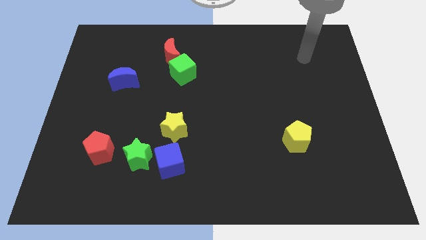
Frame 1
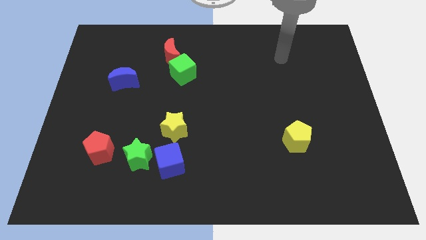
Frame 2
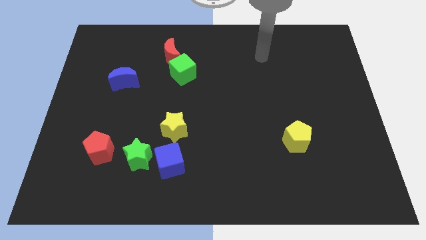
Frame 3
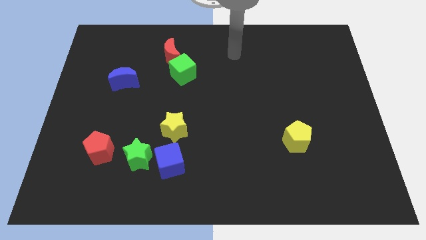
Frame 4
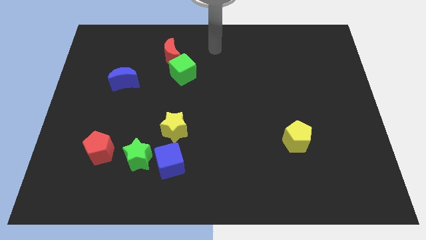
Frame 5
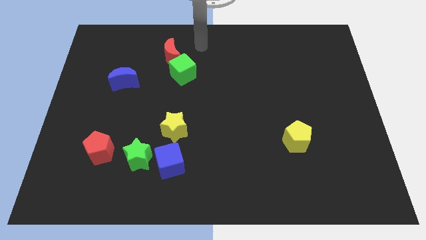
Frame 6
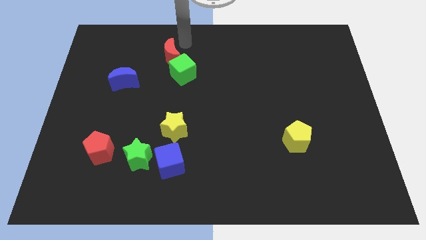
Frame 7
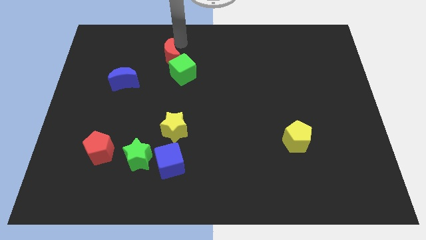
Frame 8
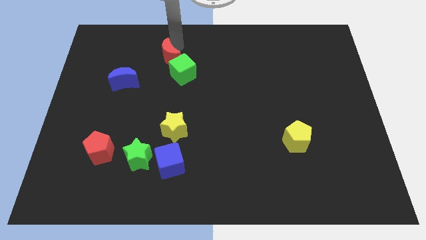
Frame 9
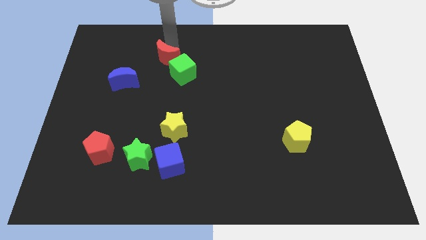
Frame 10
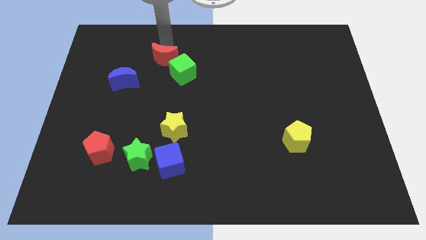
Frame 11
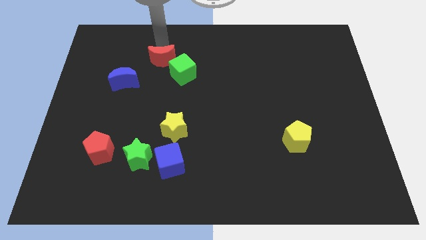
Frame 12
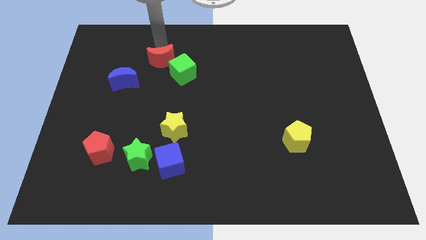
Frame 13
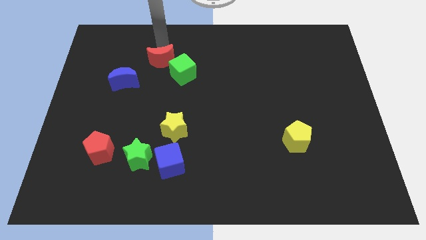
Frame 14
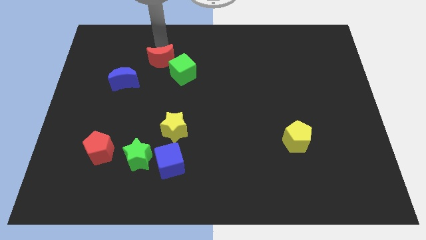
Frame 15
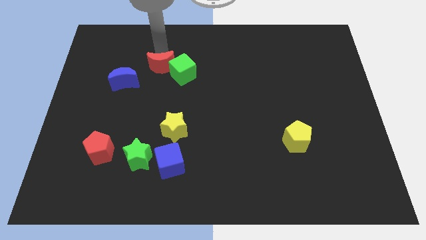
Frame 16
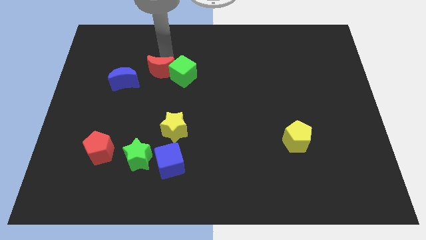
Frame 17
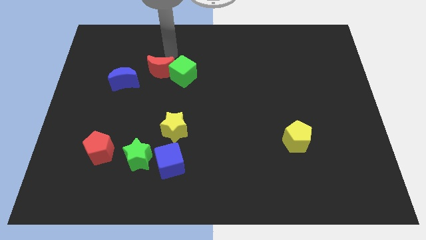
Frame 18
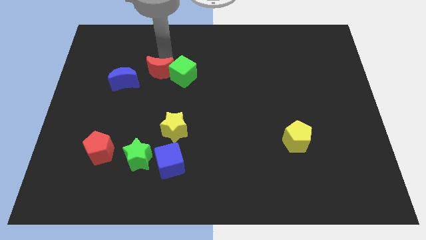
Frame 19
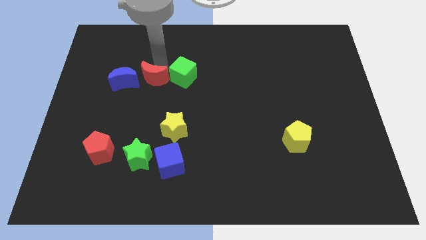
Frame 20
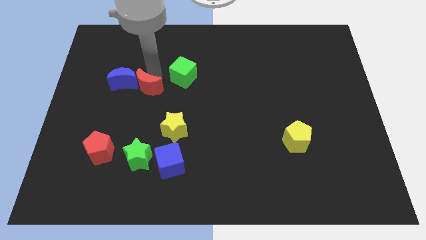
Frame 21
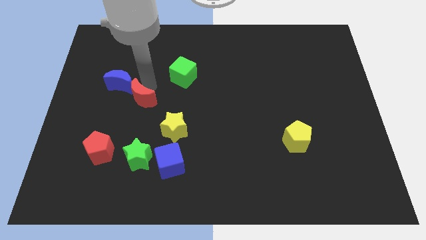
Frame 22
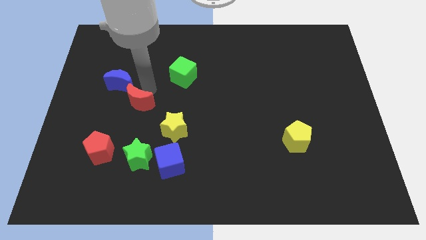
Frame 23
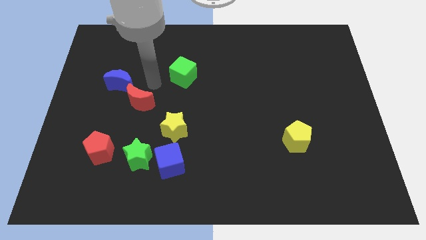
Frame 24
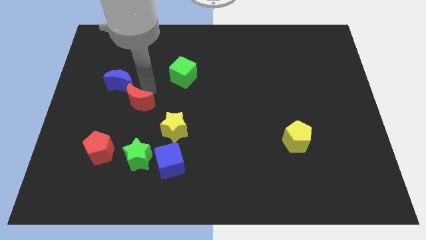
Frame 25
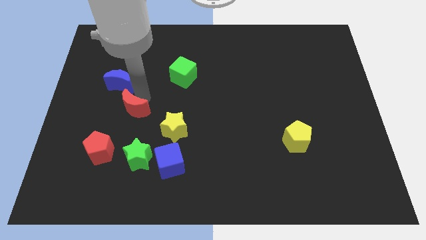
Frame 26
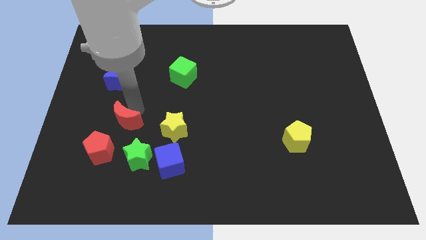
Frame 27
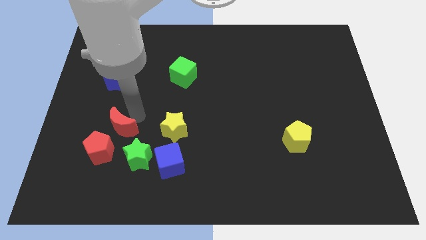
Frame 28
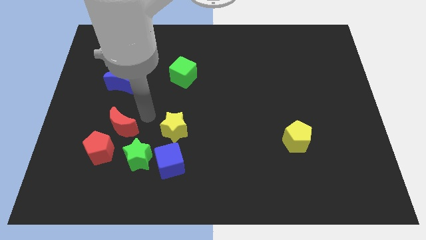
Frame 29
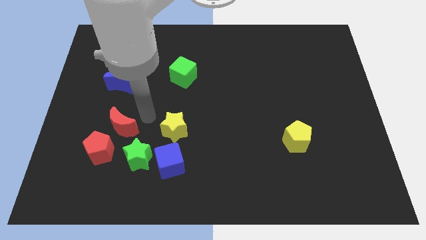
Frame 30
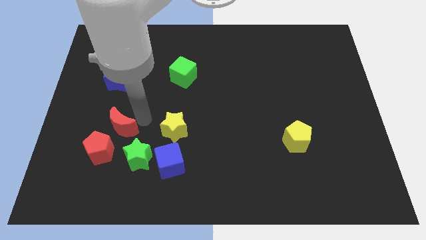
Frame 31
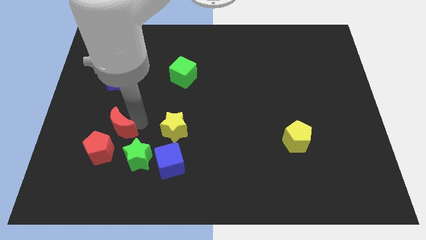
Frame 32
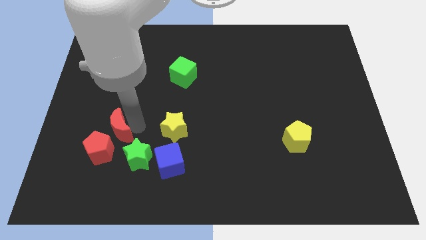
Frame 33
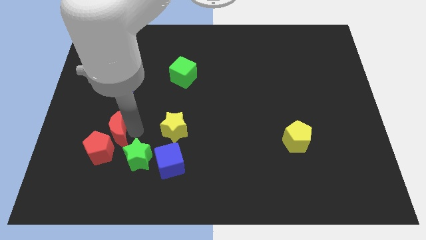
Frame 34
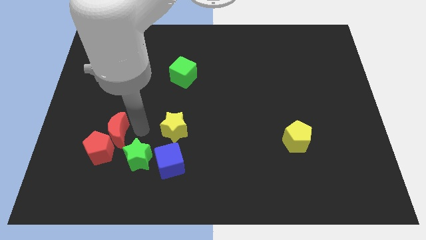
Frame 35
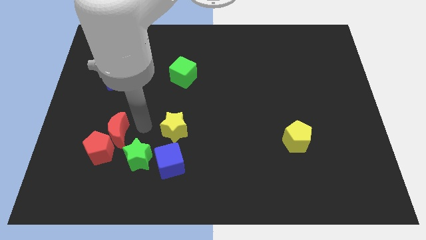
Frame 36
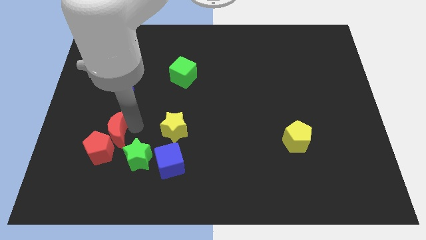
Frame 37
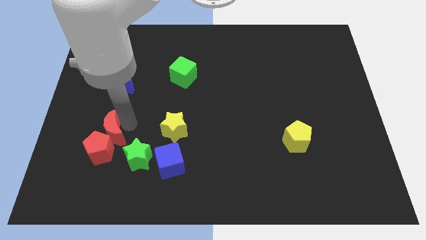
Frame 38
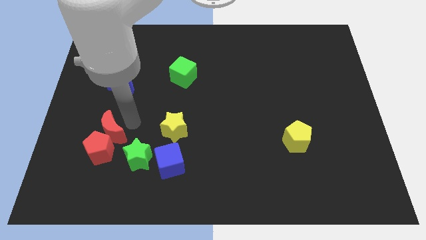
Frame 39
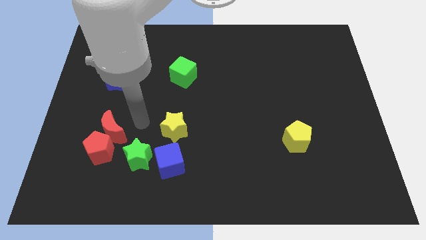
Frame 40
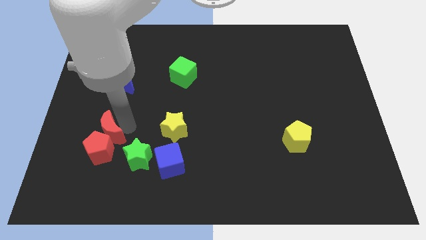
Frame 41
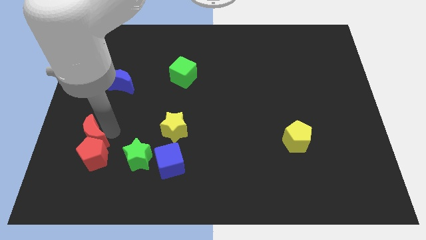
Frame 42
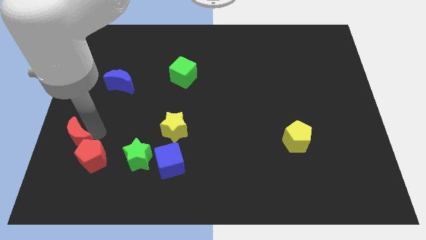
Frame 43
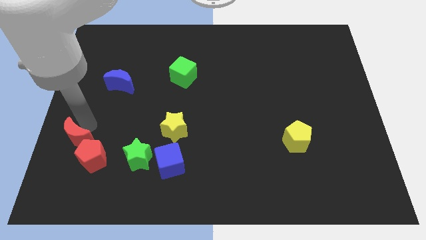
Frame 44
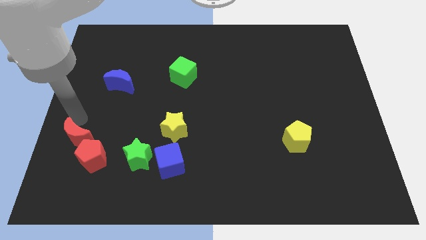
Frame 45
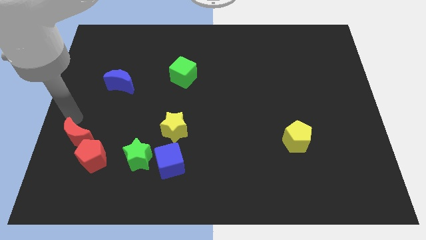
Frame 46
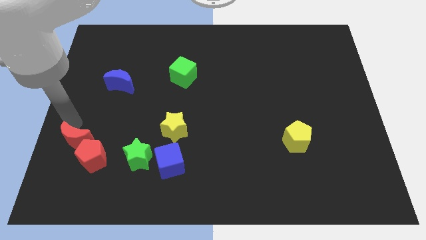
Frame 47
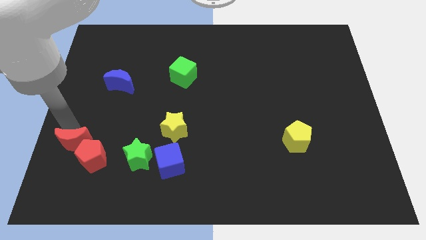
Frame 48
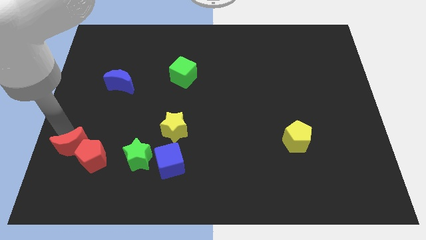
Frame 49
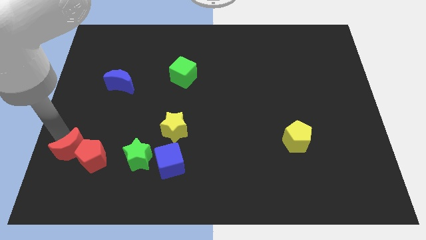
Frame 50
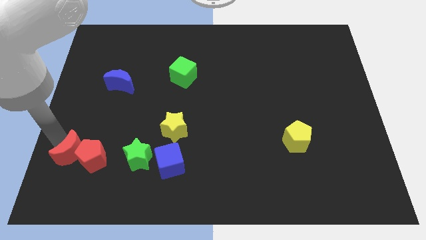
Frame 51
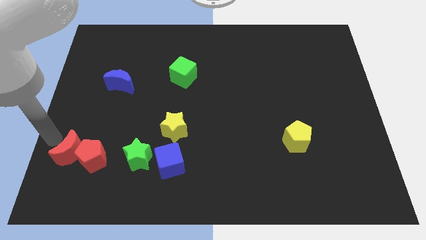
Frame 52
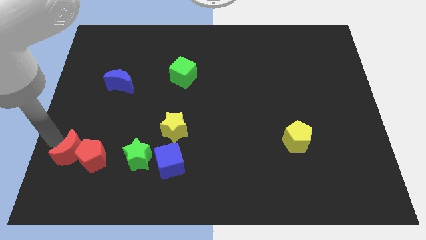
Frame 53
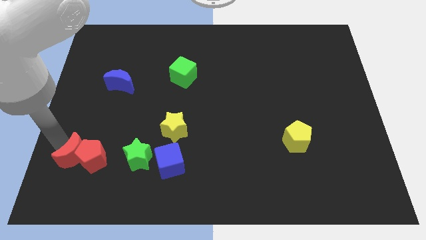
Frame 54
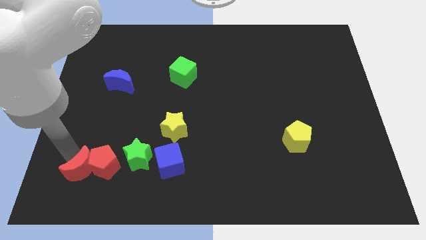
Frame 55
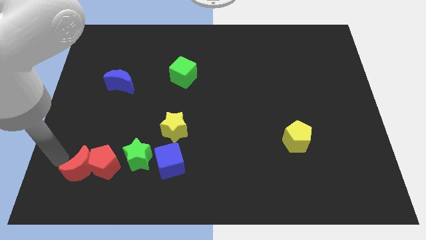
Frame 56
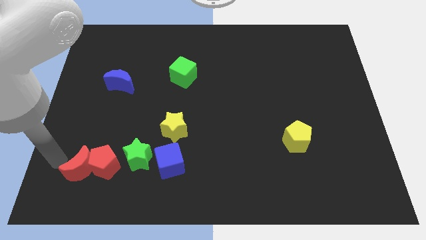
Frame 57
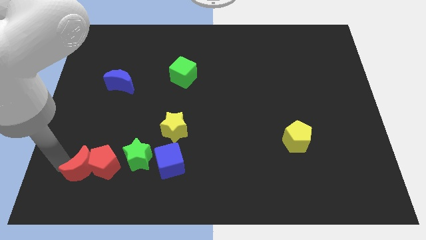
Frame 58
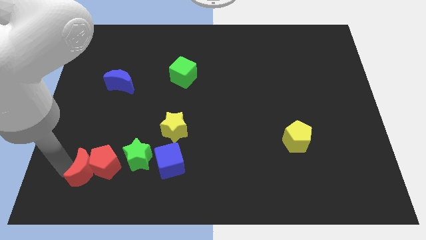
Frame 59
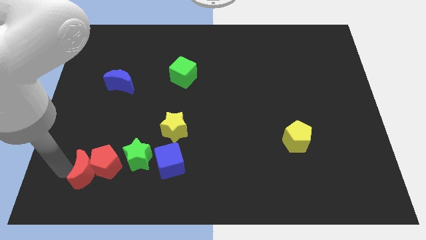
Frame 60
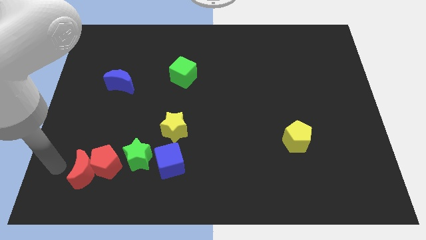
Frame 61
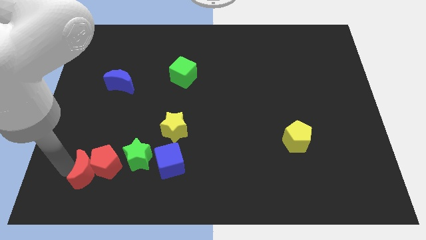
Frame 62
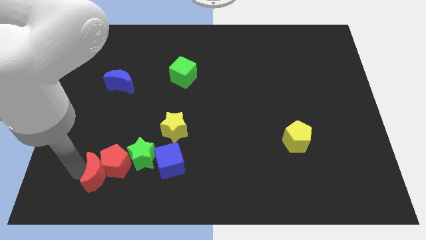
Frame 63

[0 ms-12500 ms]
put the red moon left of the blue cube
